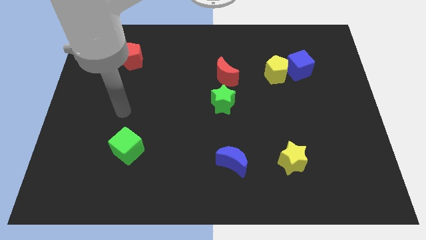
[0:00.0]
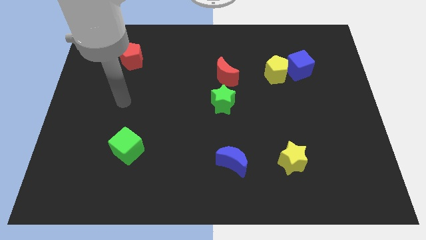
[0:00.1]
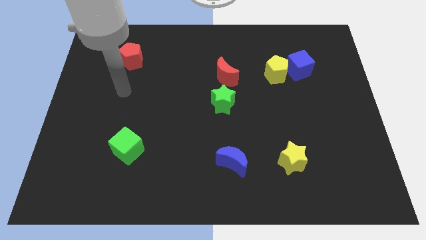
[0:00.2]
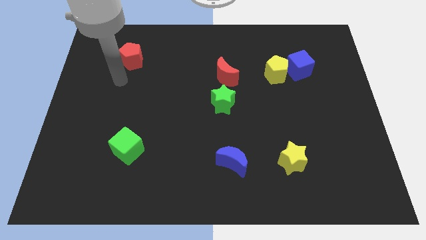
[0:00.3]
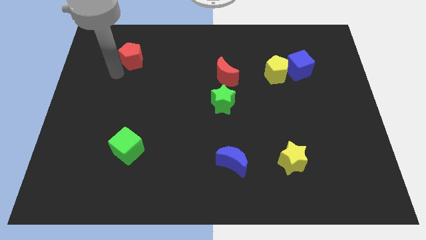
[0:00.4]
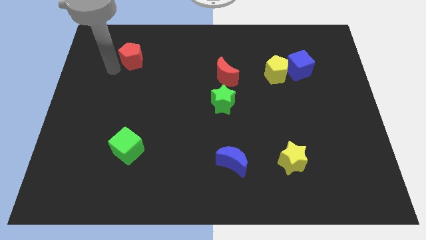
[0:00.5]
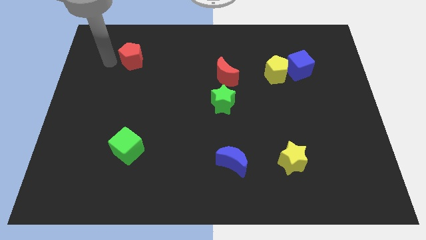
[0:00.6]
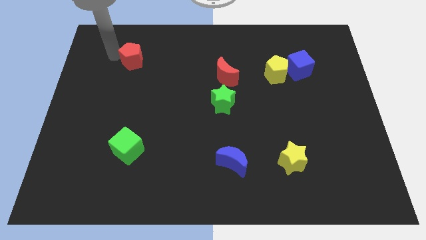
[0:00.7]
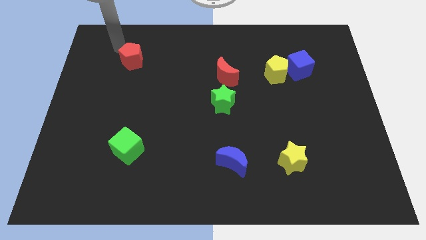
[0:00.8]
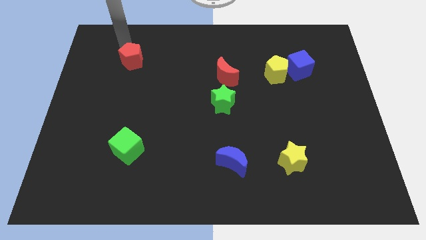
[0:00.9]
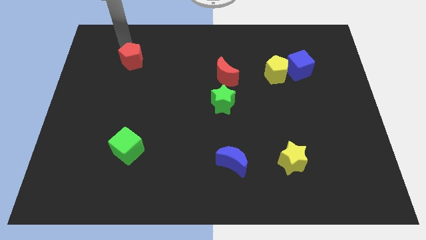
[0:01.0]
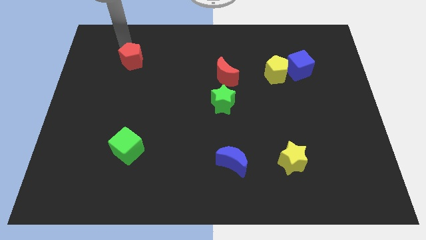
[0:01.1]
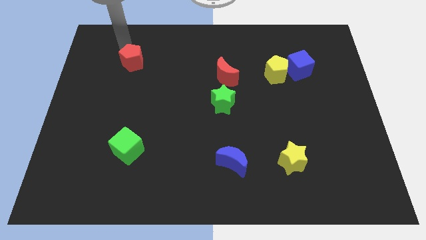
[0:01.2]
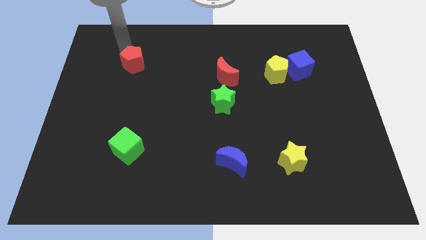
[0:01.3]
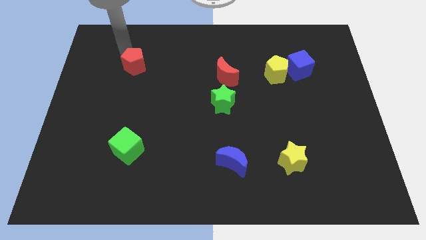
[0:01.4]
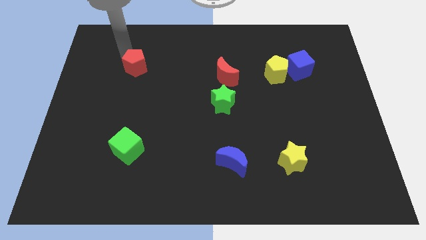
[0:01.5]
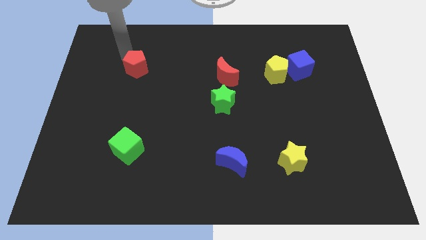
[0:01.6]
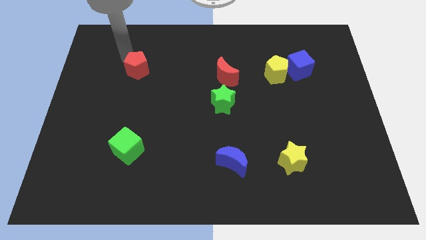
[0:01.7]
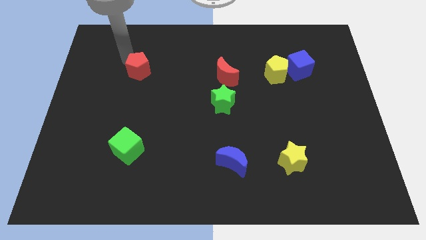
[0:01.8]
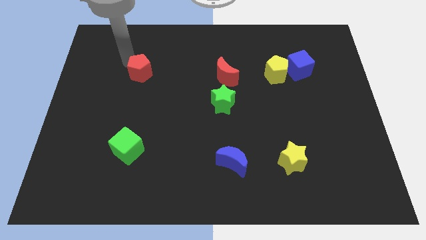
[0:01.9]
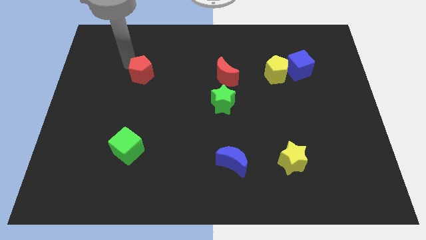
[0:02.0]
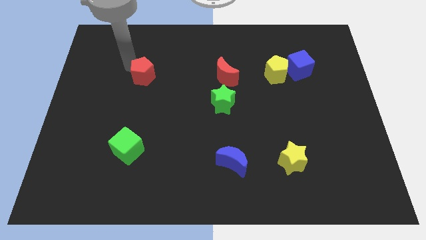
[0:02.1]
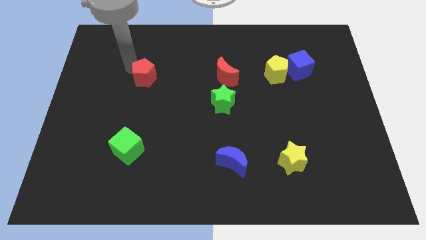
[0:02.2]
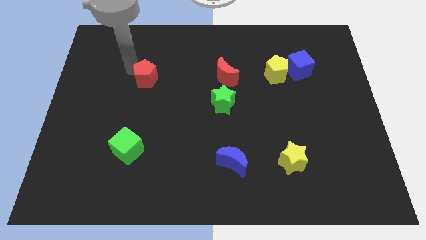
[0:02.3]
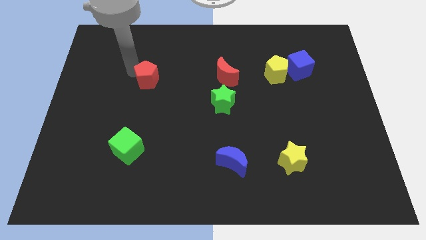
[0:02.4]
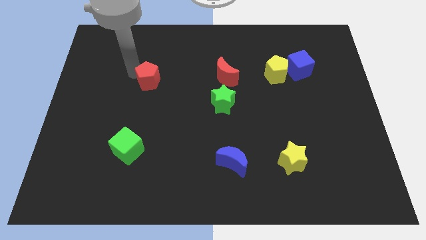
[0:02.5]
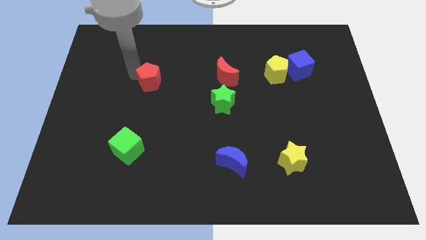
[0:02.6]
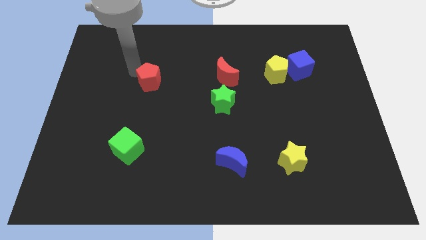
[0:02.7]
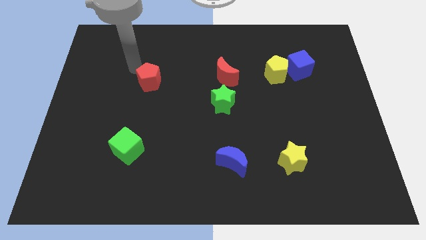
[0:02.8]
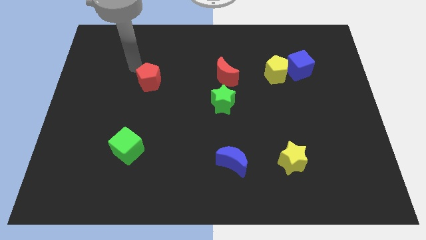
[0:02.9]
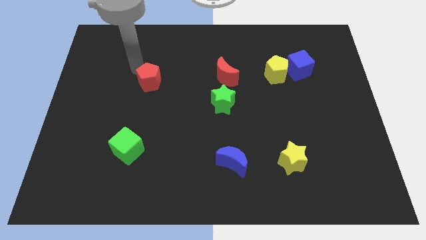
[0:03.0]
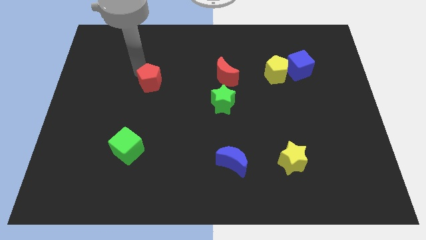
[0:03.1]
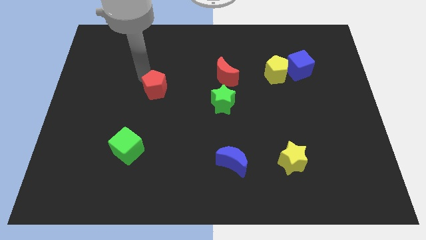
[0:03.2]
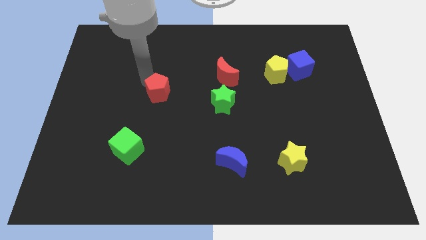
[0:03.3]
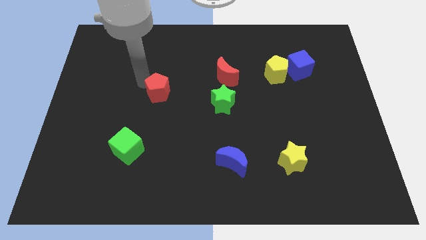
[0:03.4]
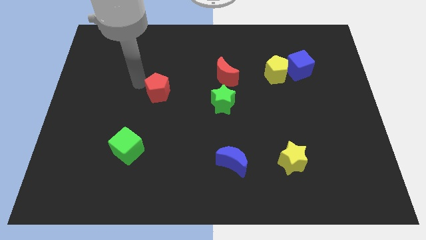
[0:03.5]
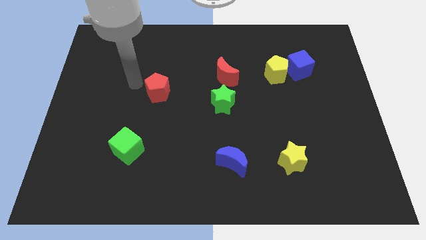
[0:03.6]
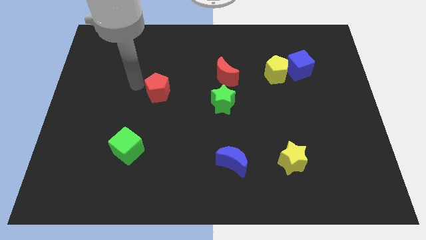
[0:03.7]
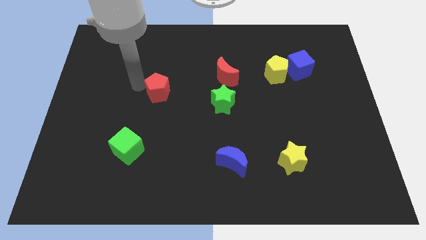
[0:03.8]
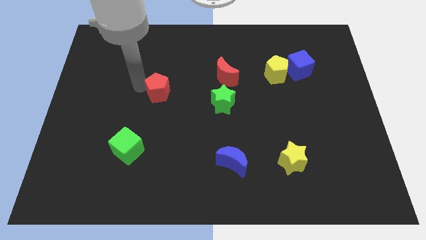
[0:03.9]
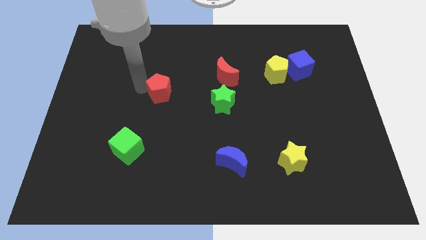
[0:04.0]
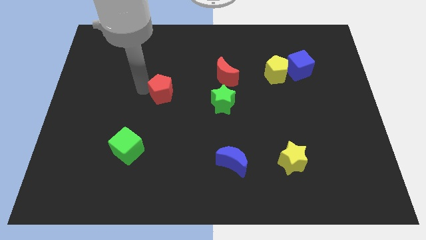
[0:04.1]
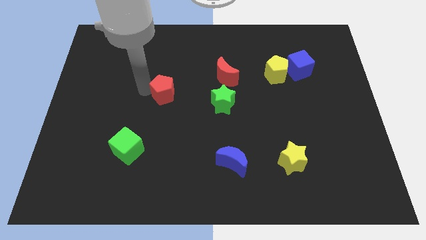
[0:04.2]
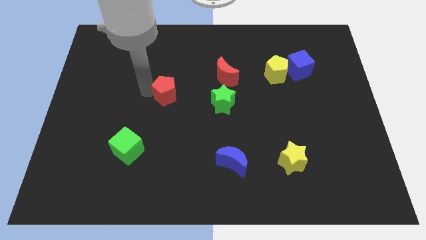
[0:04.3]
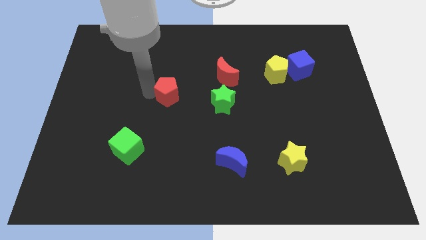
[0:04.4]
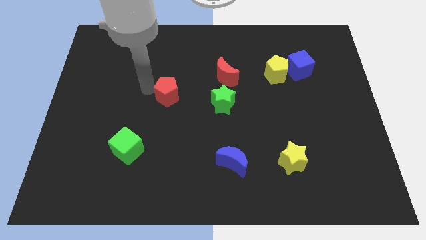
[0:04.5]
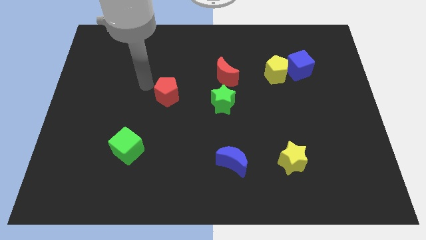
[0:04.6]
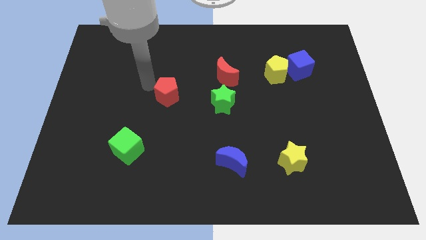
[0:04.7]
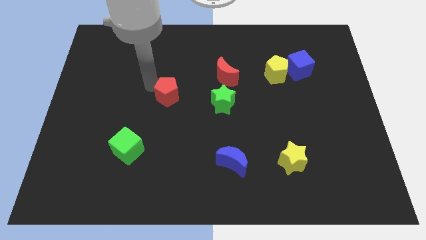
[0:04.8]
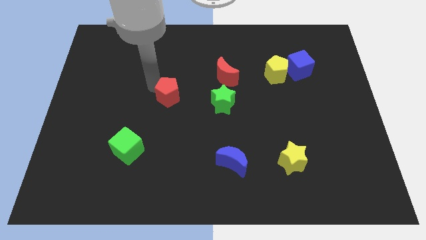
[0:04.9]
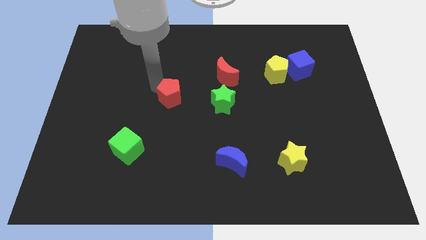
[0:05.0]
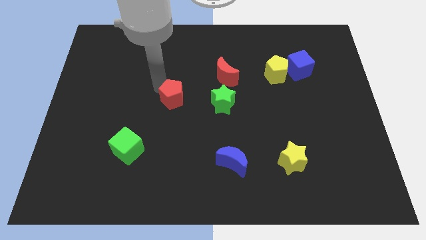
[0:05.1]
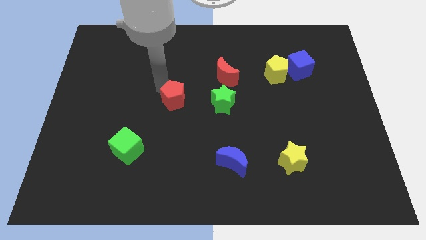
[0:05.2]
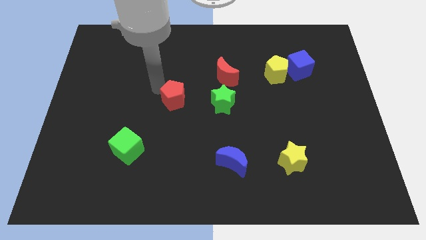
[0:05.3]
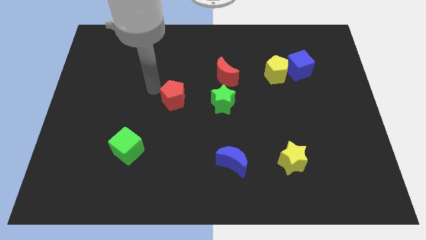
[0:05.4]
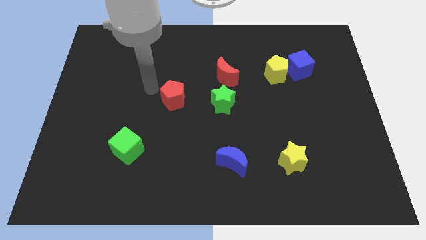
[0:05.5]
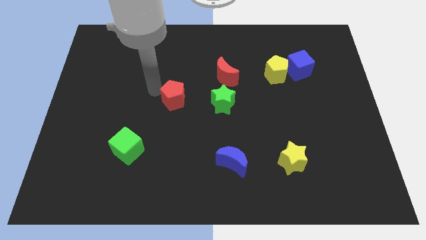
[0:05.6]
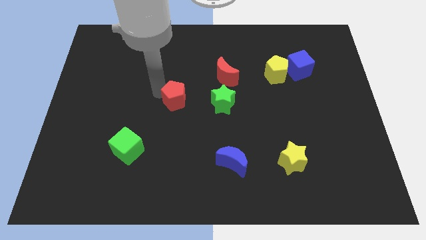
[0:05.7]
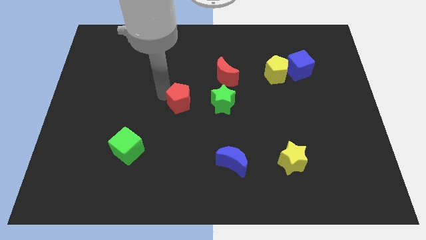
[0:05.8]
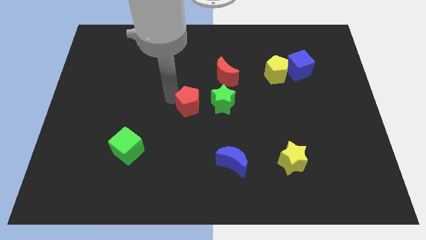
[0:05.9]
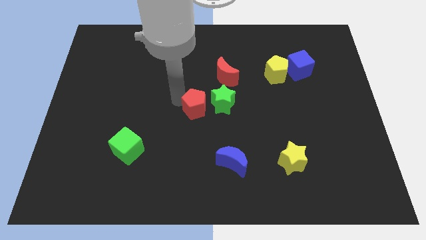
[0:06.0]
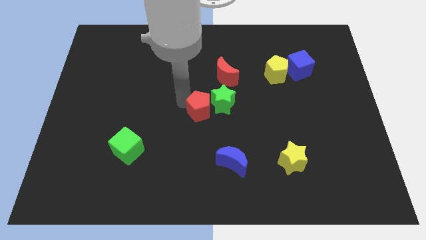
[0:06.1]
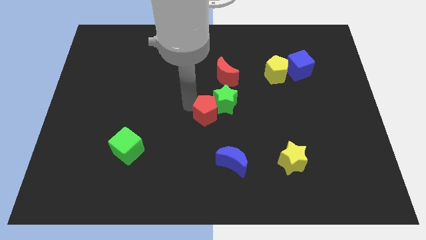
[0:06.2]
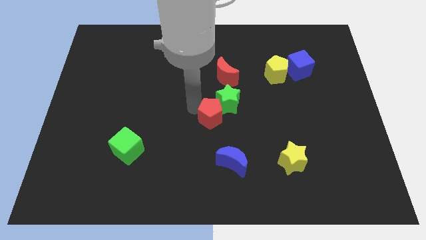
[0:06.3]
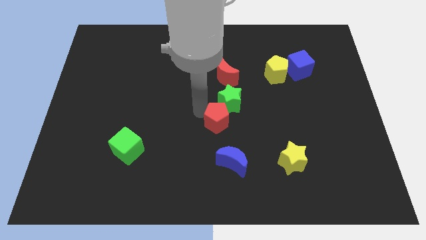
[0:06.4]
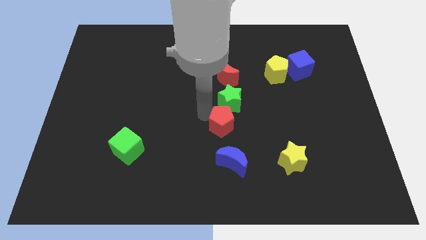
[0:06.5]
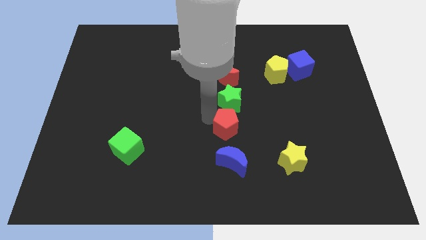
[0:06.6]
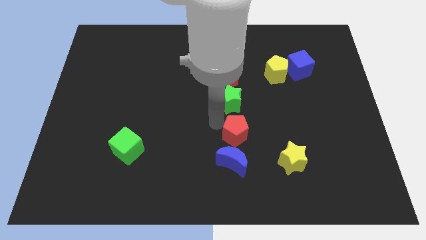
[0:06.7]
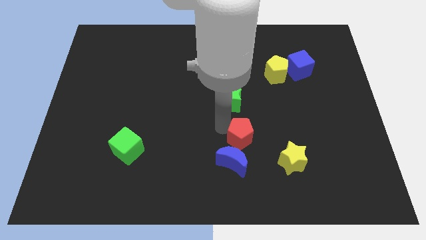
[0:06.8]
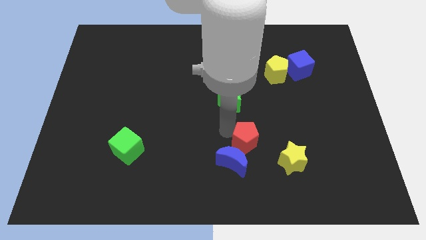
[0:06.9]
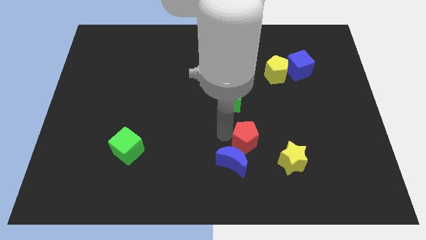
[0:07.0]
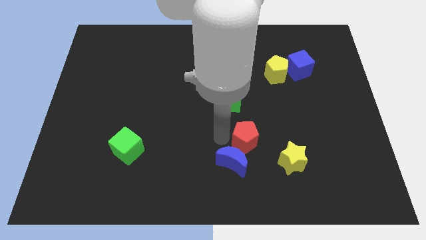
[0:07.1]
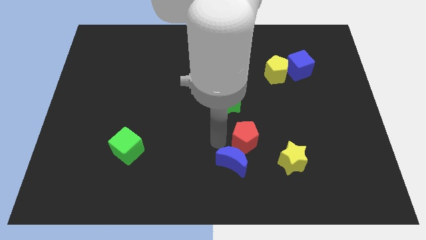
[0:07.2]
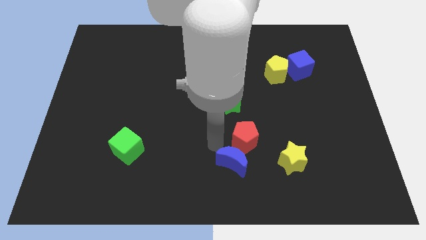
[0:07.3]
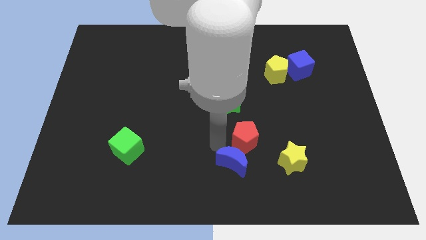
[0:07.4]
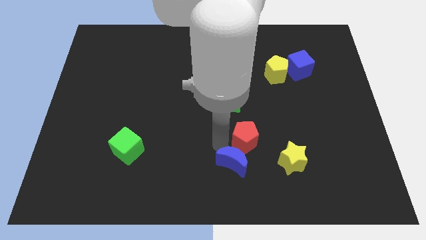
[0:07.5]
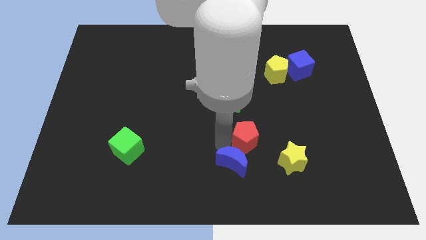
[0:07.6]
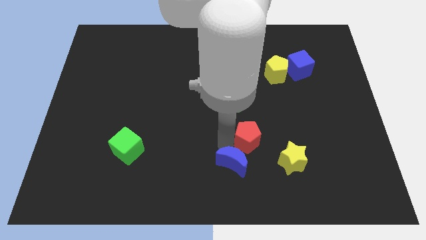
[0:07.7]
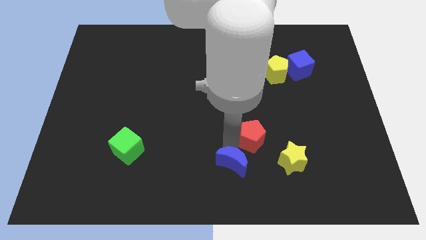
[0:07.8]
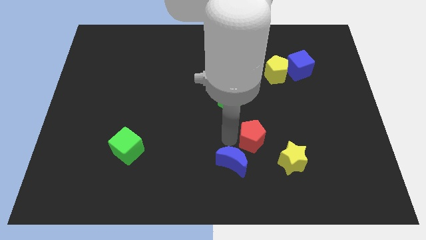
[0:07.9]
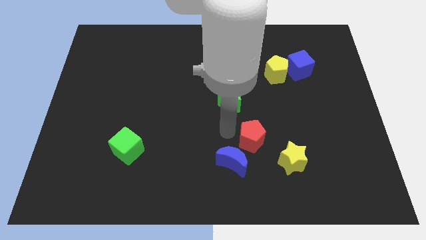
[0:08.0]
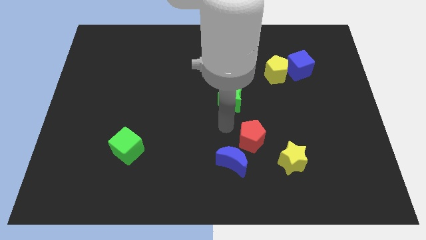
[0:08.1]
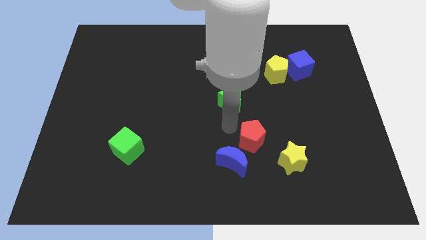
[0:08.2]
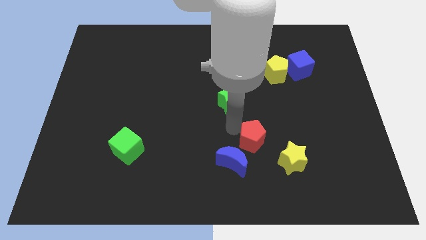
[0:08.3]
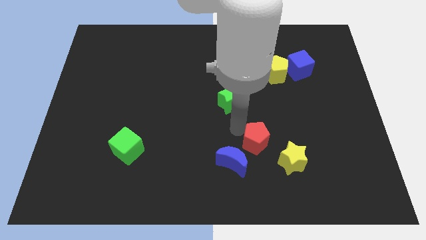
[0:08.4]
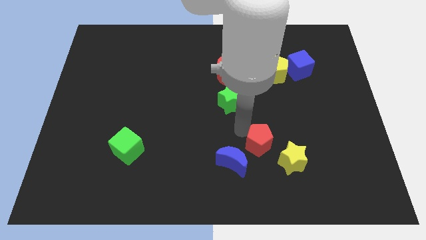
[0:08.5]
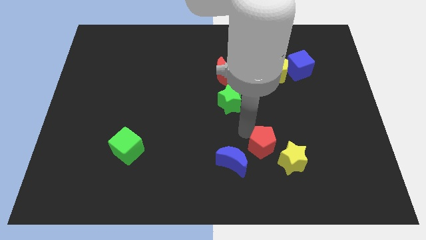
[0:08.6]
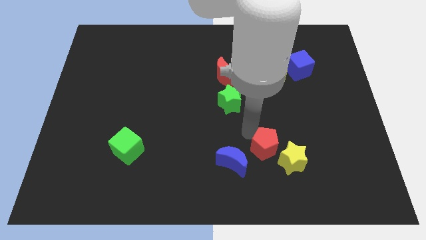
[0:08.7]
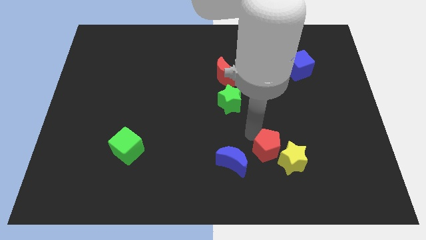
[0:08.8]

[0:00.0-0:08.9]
move the red pentagon close to the yellow star
